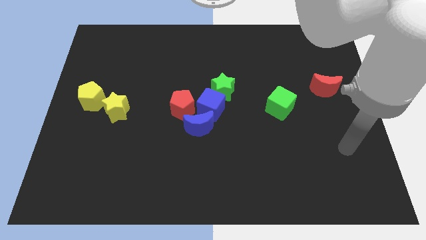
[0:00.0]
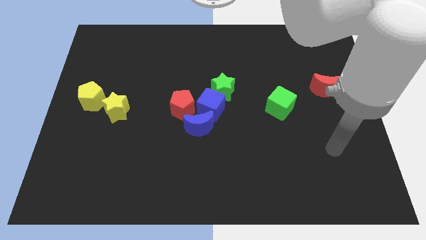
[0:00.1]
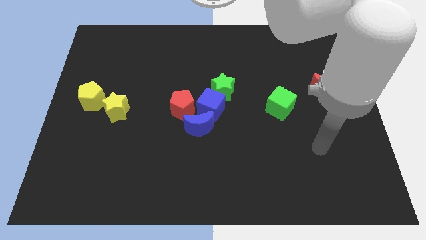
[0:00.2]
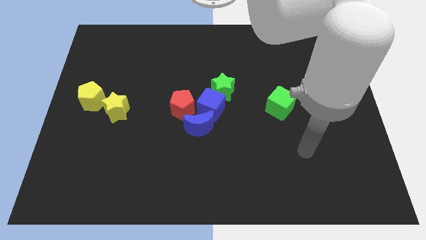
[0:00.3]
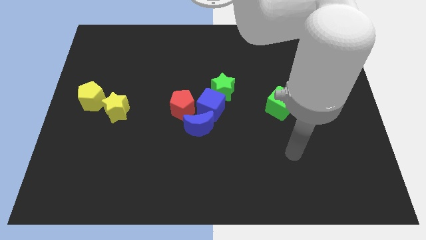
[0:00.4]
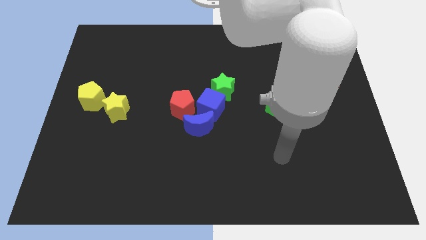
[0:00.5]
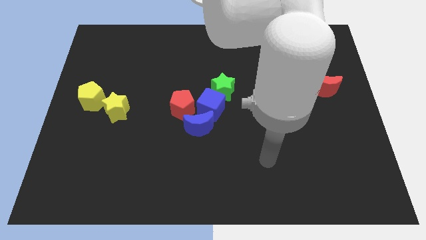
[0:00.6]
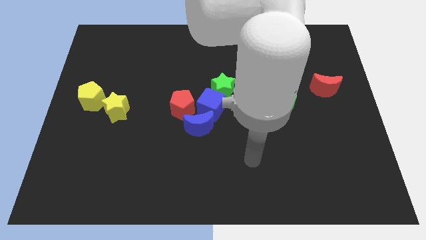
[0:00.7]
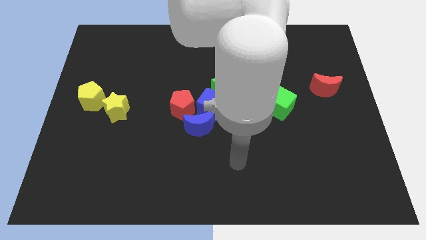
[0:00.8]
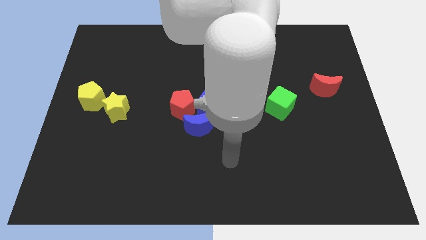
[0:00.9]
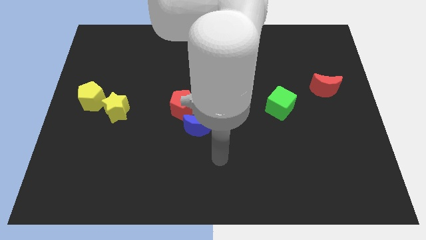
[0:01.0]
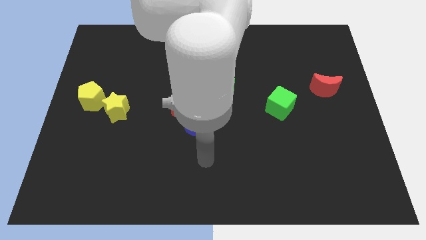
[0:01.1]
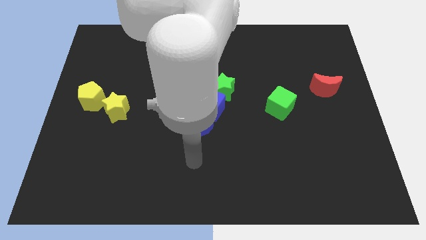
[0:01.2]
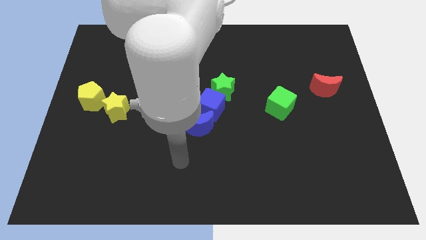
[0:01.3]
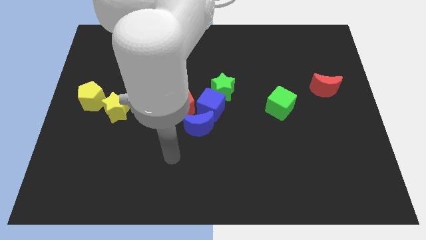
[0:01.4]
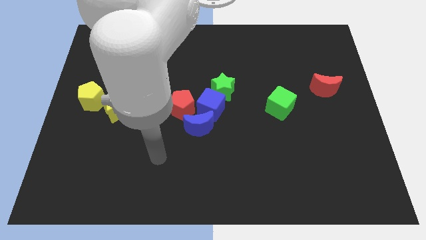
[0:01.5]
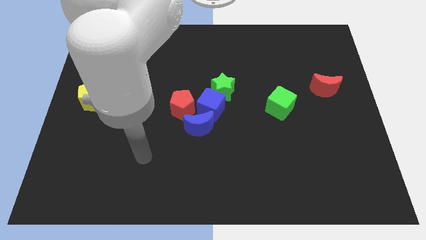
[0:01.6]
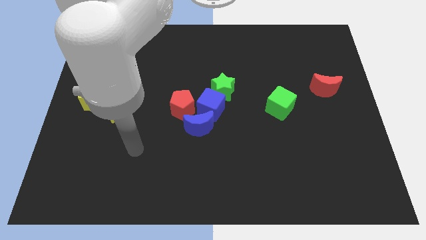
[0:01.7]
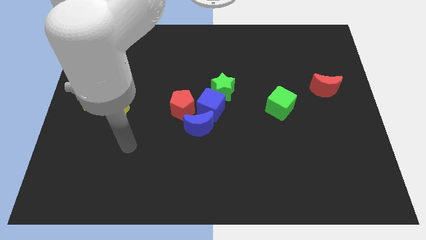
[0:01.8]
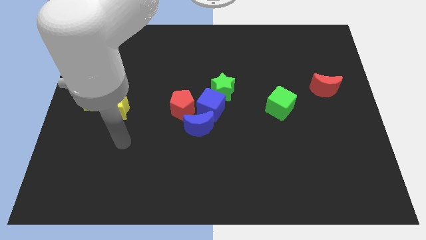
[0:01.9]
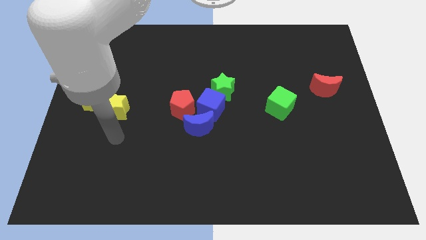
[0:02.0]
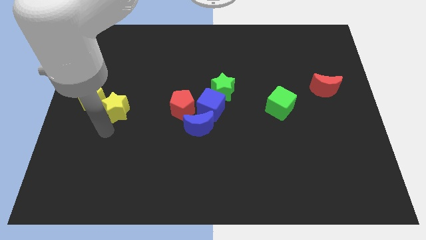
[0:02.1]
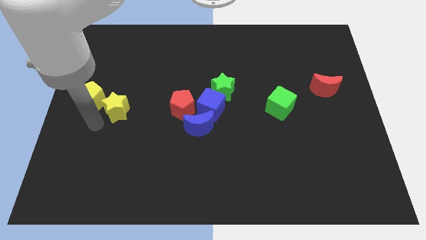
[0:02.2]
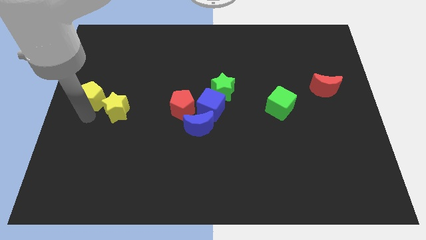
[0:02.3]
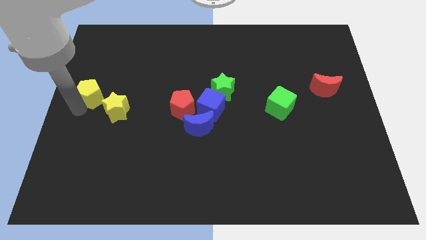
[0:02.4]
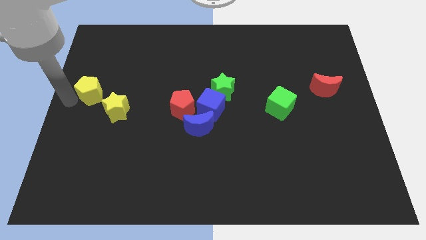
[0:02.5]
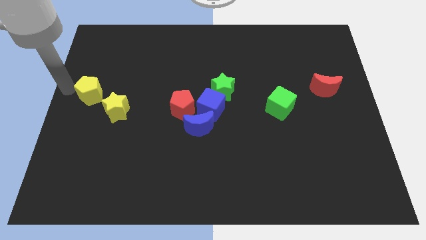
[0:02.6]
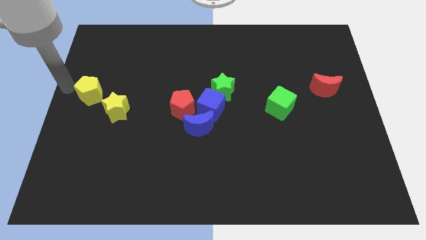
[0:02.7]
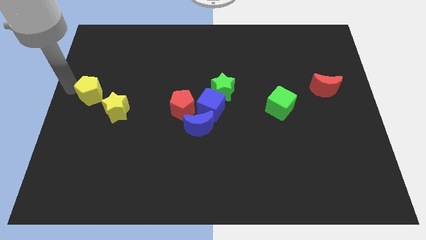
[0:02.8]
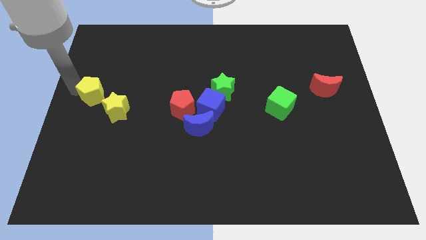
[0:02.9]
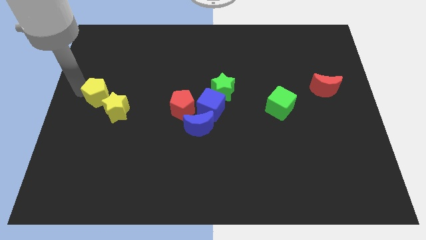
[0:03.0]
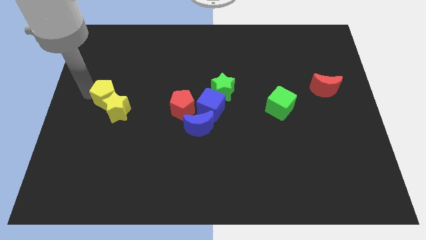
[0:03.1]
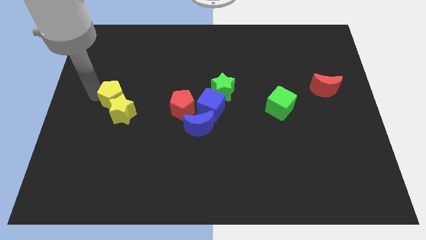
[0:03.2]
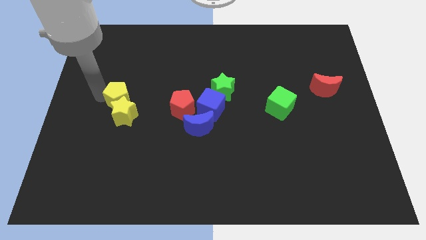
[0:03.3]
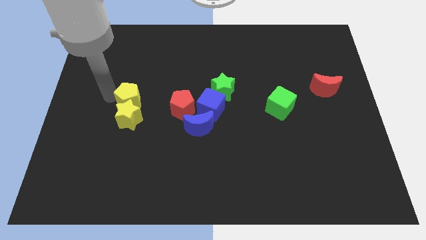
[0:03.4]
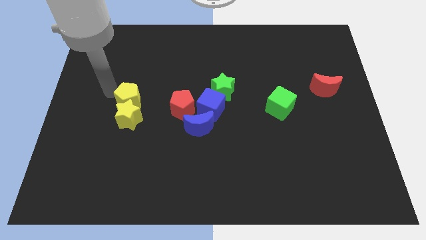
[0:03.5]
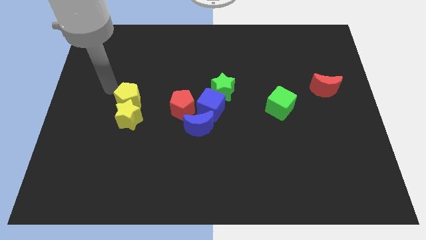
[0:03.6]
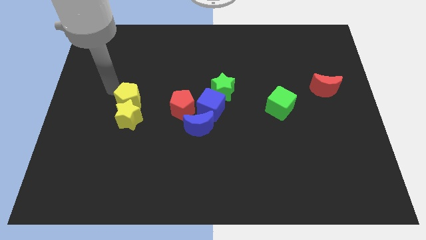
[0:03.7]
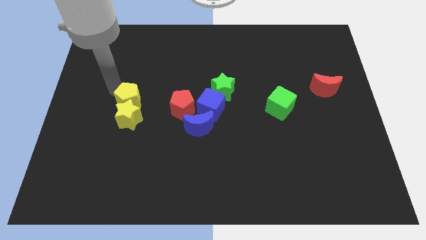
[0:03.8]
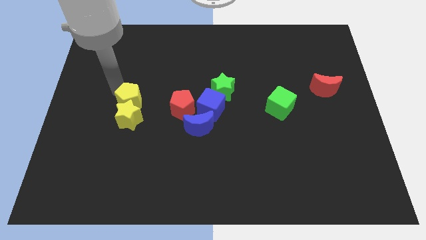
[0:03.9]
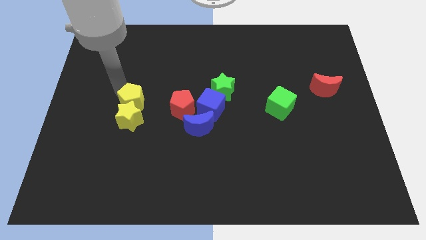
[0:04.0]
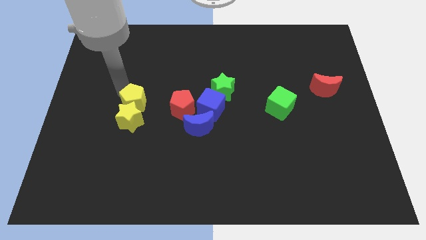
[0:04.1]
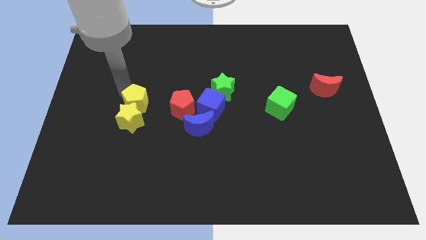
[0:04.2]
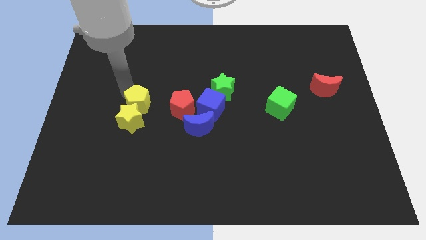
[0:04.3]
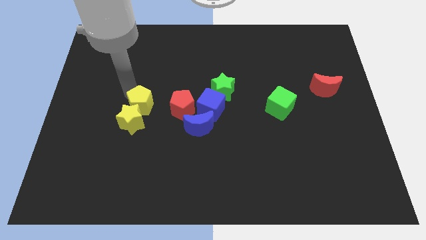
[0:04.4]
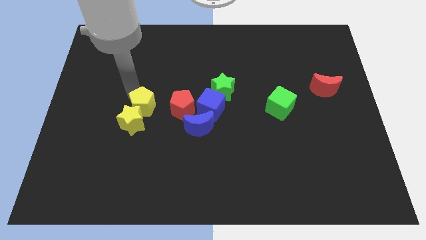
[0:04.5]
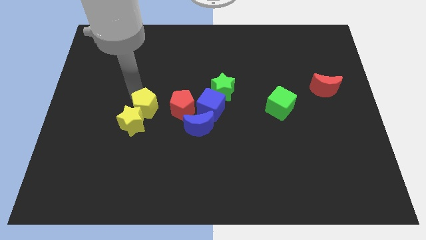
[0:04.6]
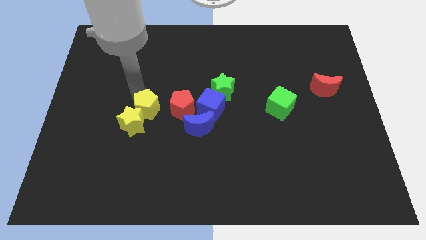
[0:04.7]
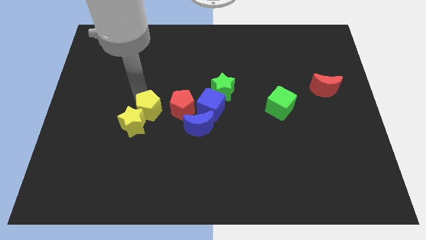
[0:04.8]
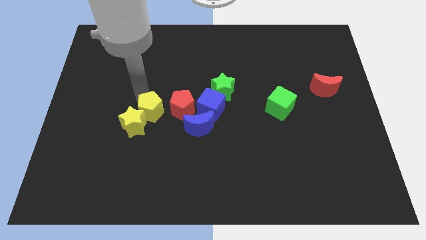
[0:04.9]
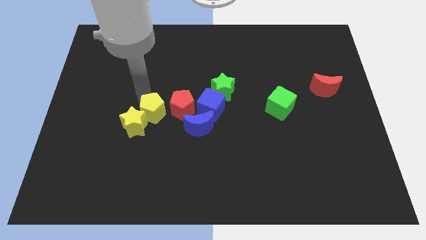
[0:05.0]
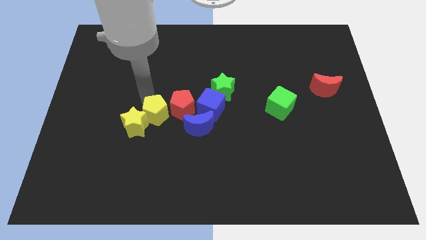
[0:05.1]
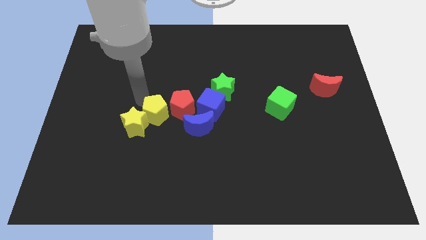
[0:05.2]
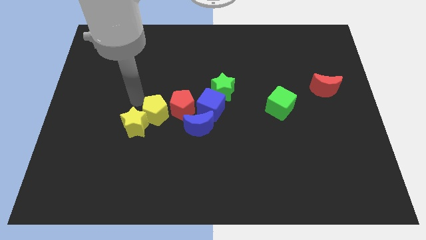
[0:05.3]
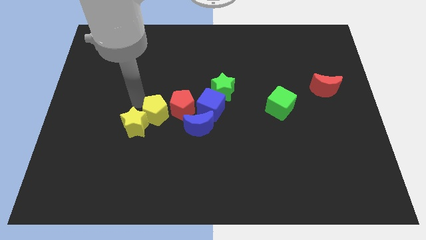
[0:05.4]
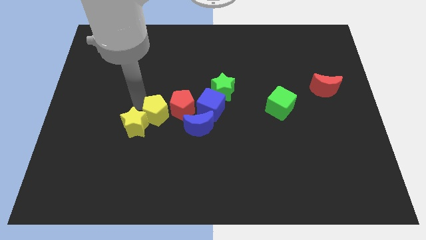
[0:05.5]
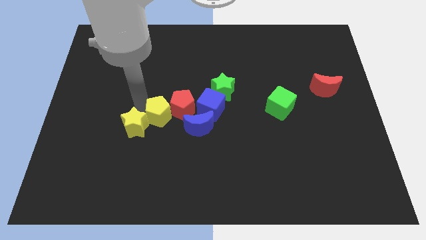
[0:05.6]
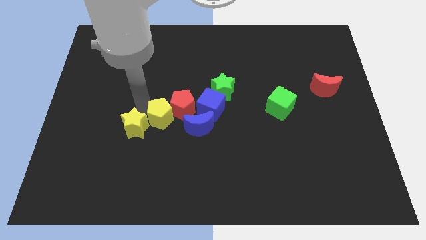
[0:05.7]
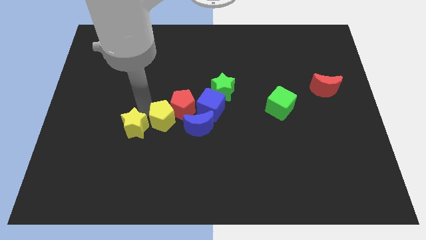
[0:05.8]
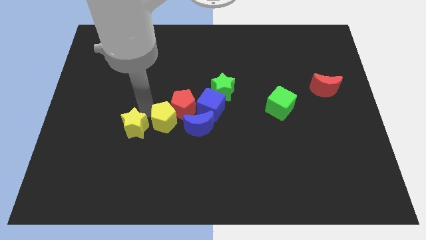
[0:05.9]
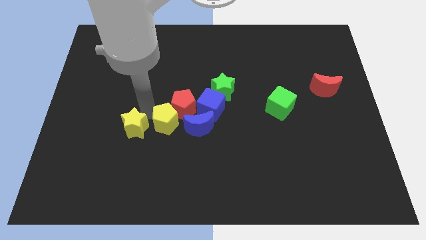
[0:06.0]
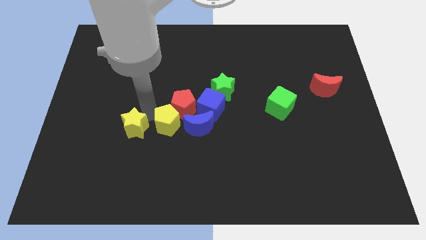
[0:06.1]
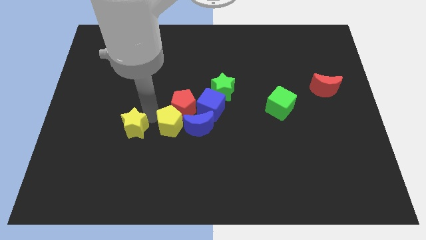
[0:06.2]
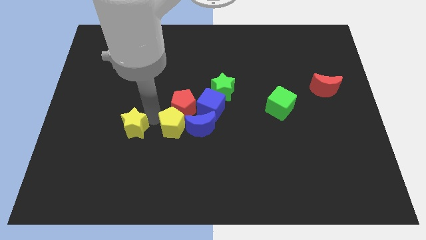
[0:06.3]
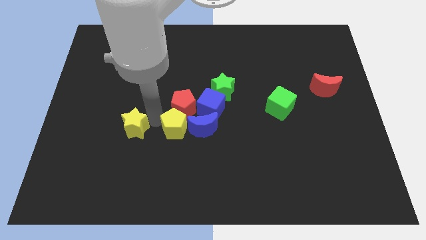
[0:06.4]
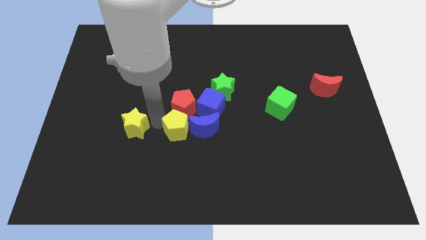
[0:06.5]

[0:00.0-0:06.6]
move the yellow pentagon next to the blue moon

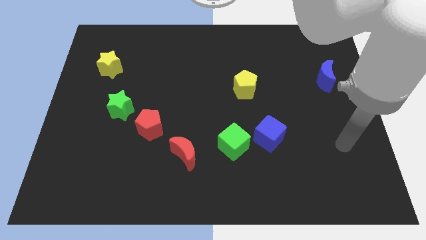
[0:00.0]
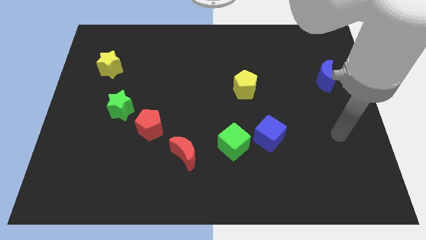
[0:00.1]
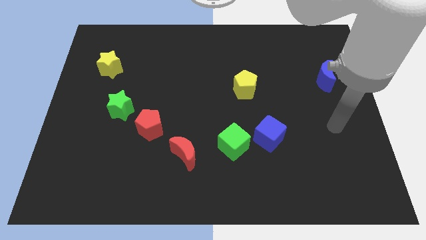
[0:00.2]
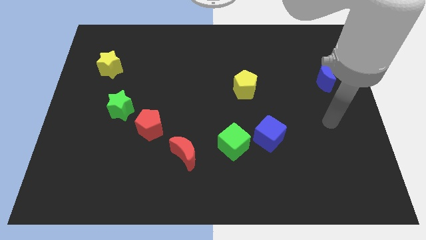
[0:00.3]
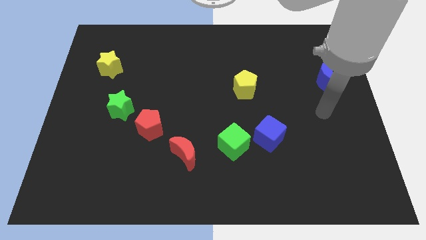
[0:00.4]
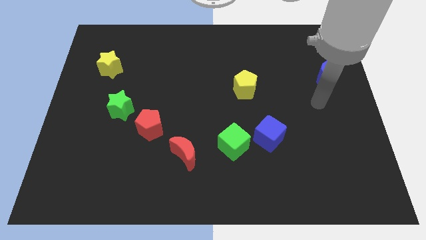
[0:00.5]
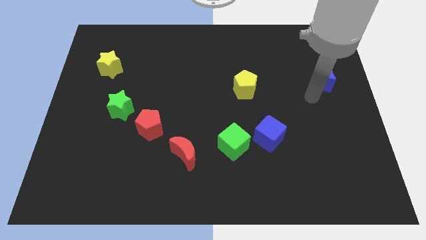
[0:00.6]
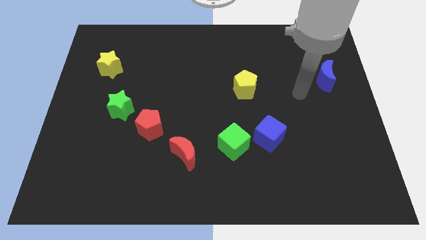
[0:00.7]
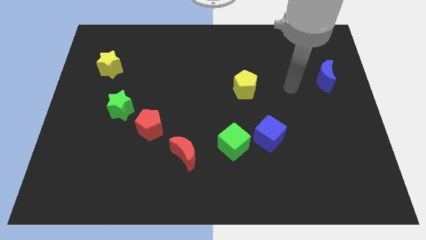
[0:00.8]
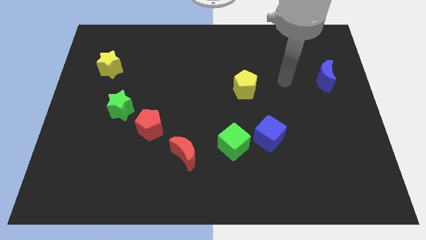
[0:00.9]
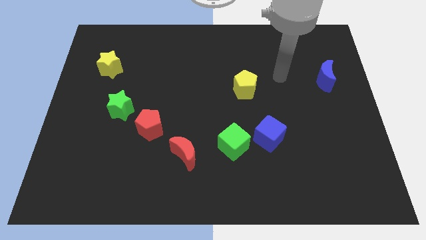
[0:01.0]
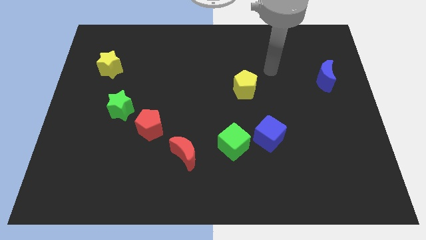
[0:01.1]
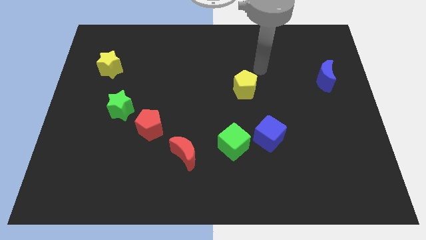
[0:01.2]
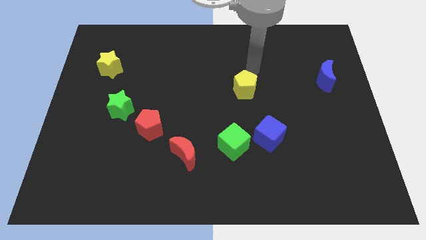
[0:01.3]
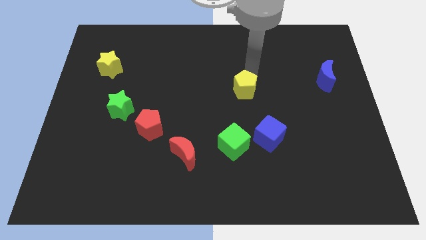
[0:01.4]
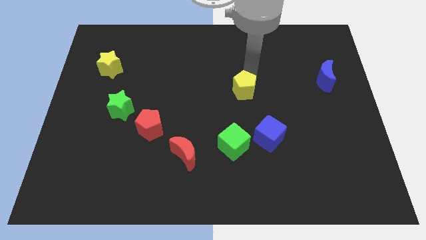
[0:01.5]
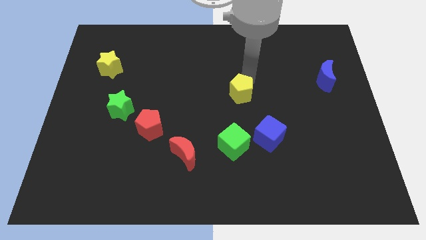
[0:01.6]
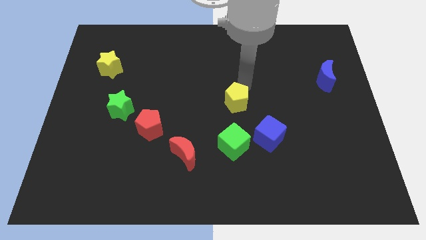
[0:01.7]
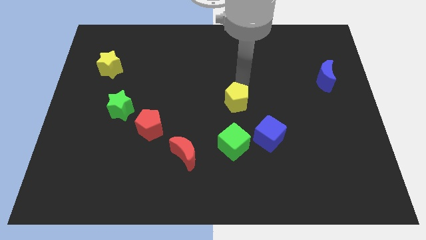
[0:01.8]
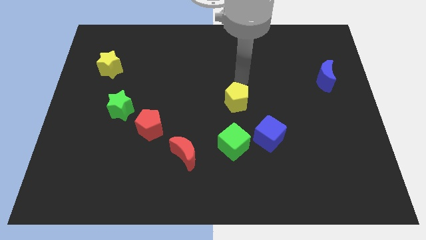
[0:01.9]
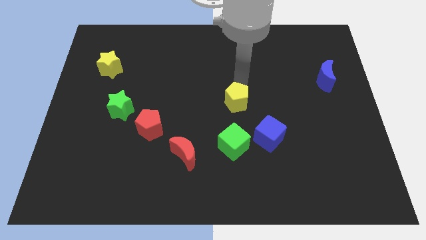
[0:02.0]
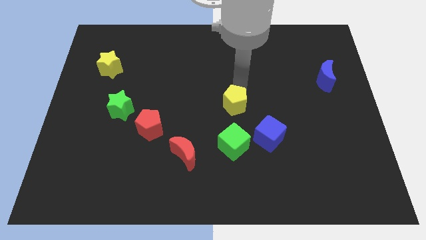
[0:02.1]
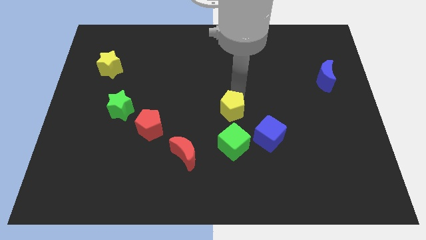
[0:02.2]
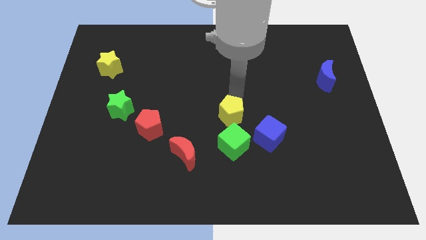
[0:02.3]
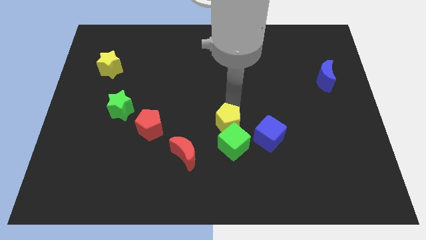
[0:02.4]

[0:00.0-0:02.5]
slide the yellow pentagon next to the green cube
